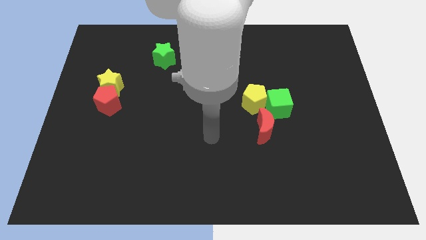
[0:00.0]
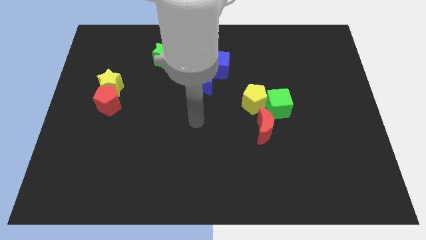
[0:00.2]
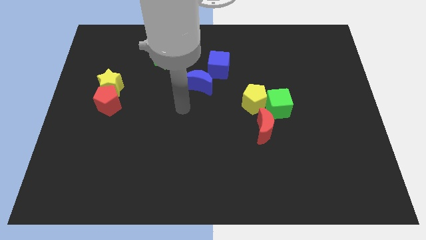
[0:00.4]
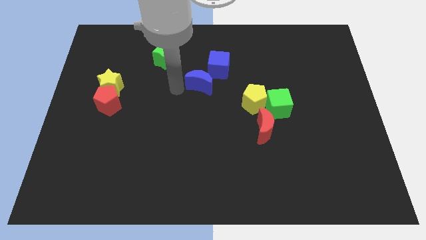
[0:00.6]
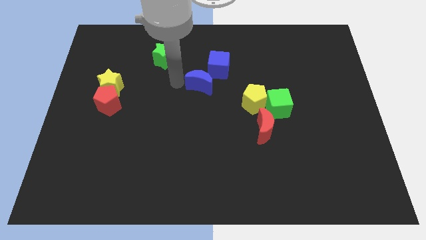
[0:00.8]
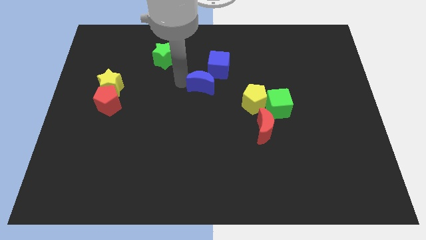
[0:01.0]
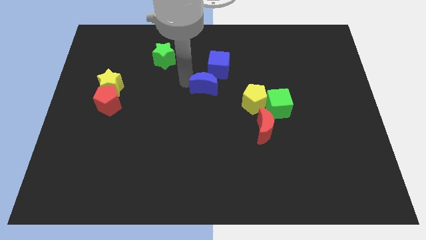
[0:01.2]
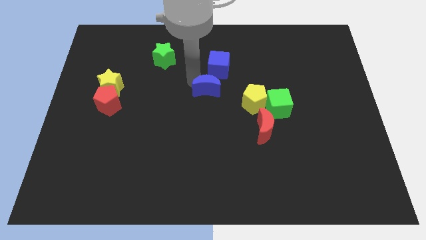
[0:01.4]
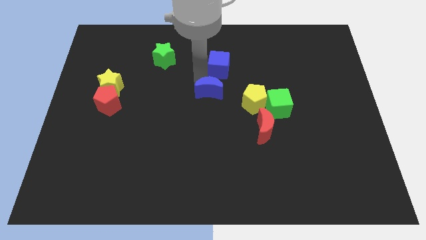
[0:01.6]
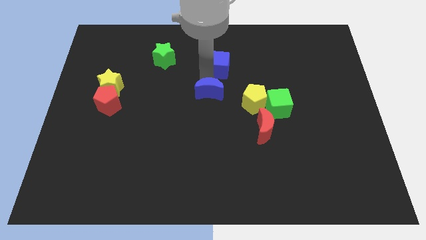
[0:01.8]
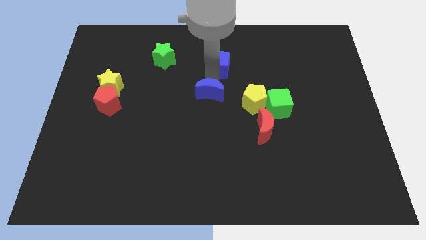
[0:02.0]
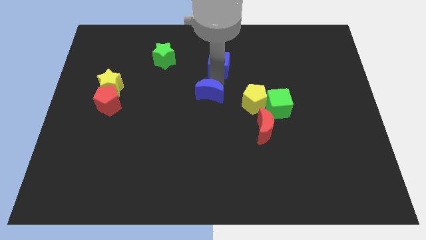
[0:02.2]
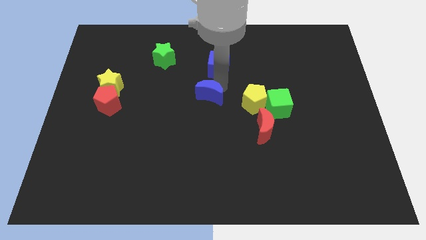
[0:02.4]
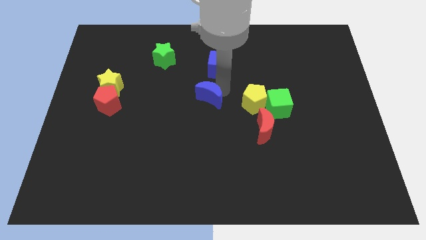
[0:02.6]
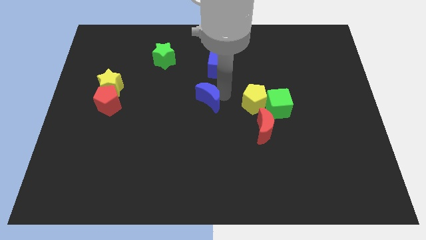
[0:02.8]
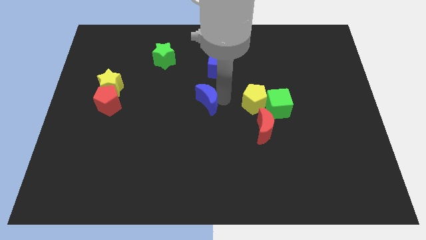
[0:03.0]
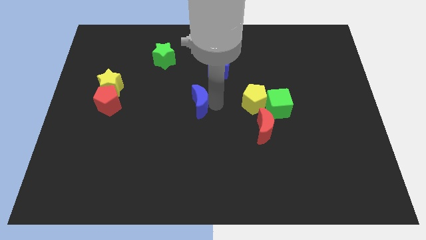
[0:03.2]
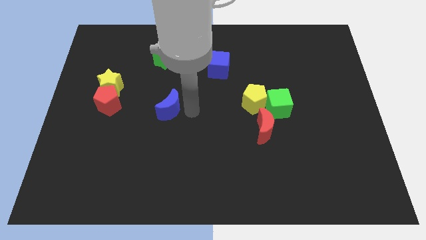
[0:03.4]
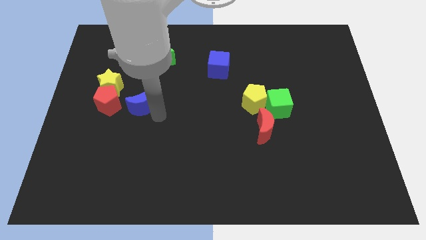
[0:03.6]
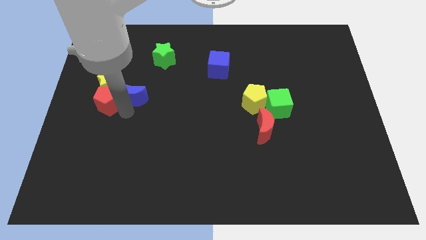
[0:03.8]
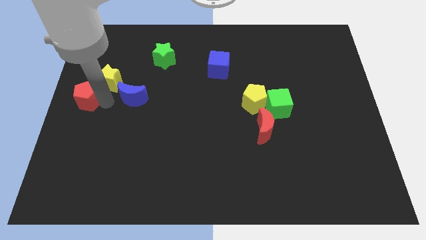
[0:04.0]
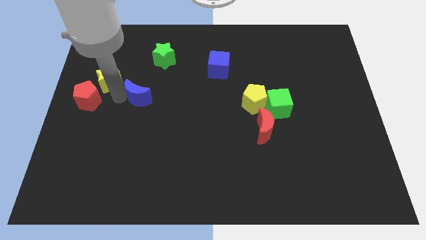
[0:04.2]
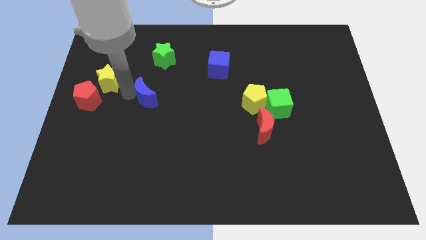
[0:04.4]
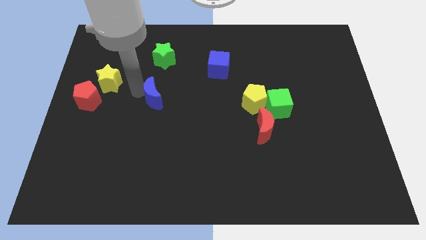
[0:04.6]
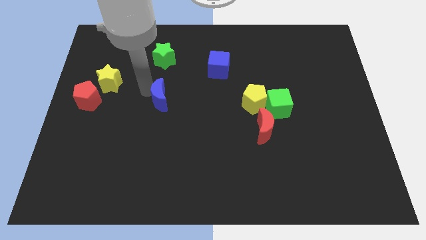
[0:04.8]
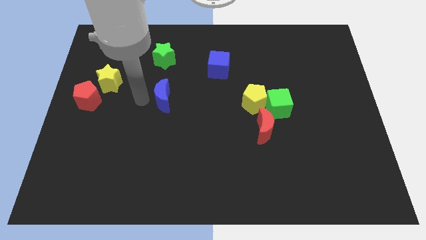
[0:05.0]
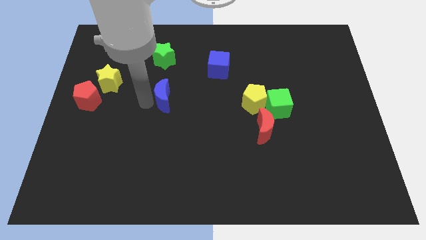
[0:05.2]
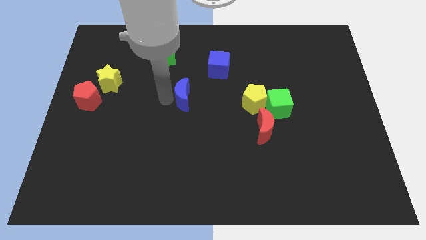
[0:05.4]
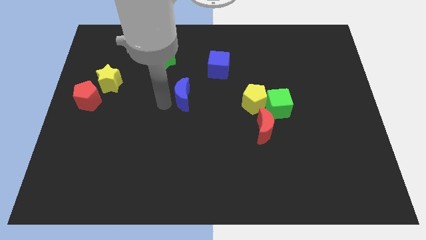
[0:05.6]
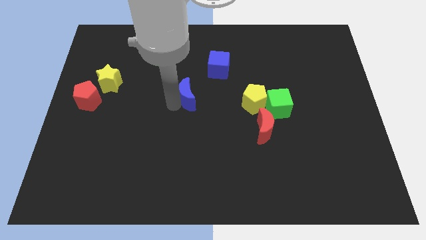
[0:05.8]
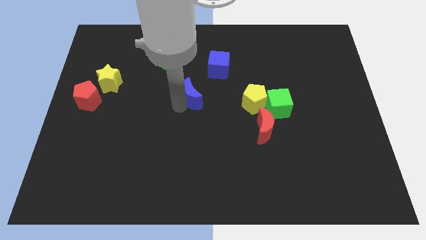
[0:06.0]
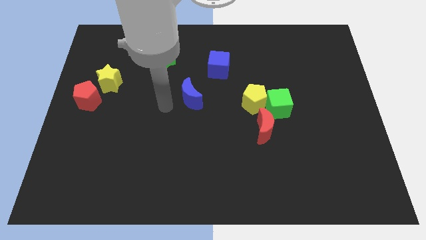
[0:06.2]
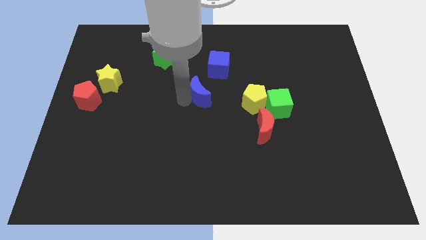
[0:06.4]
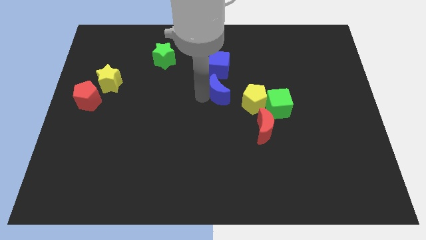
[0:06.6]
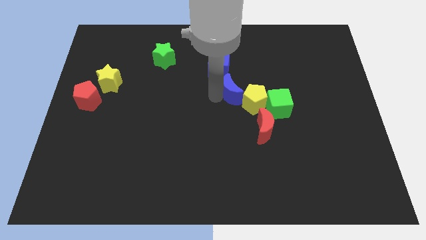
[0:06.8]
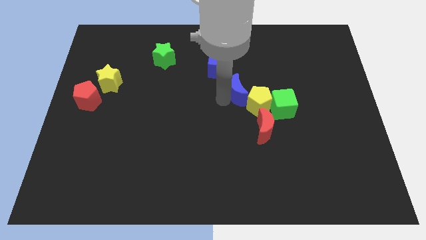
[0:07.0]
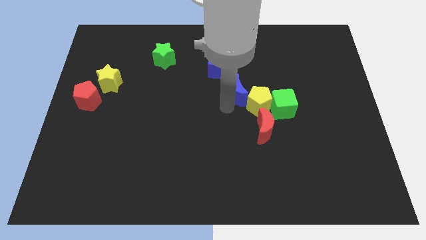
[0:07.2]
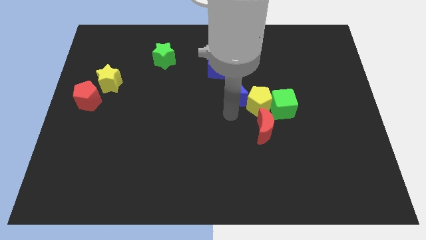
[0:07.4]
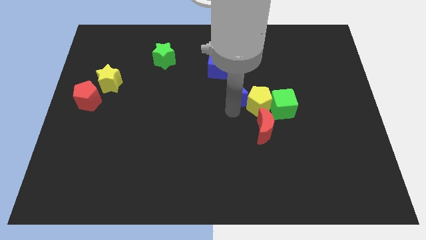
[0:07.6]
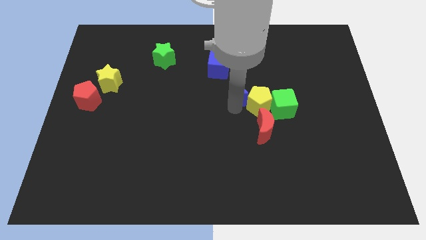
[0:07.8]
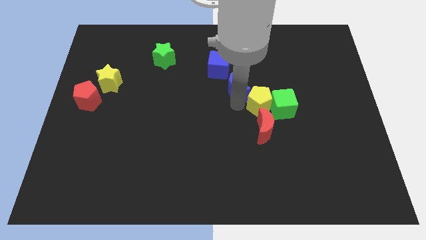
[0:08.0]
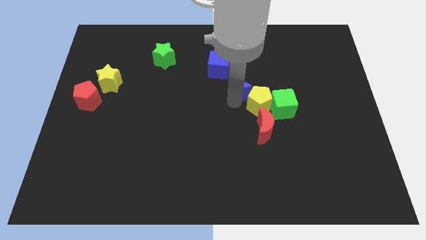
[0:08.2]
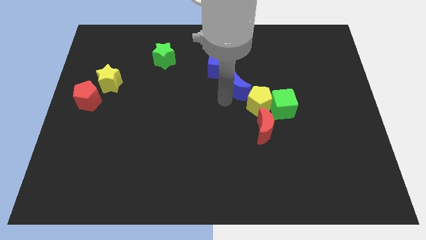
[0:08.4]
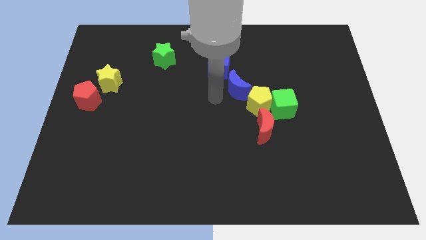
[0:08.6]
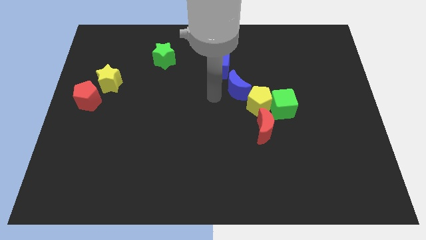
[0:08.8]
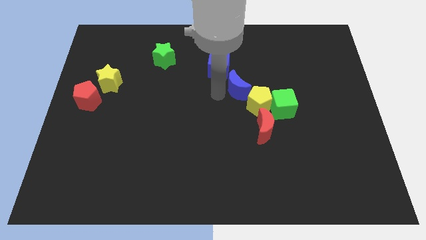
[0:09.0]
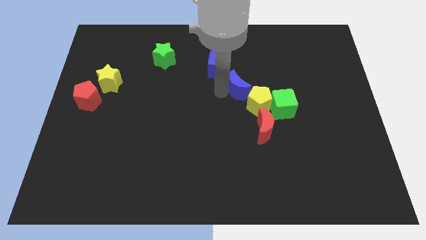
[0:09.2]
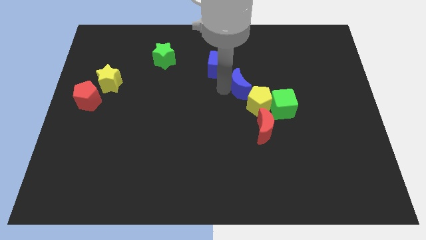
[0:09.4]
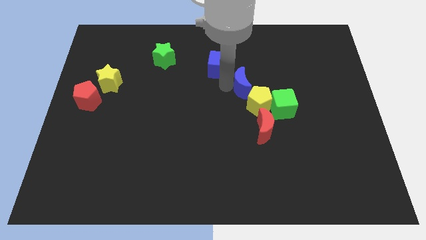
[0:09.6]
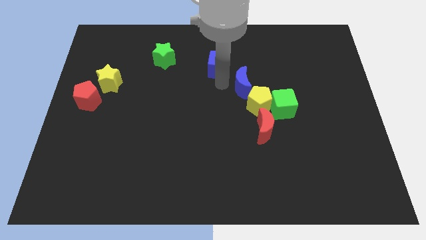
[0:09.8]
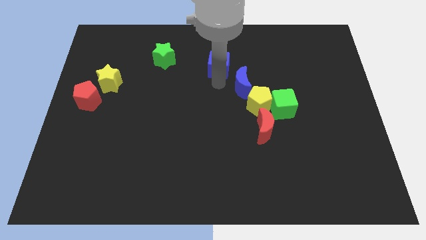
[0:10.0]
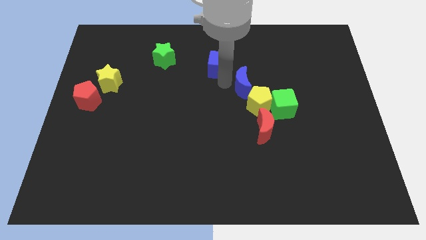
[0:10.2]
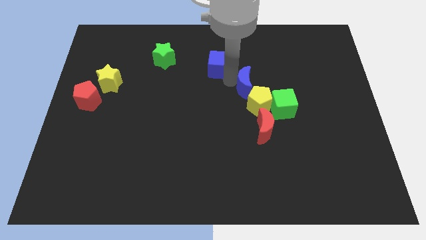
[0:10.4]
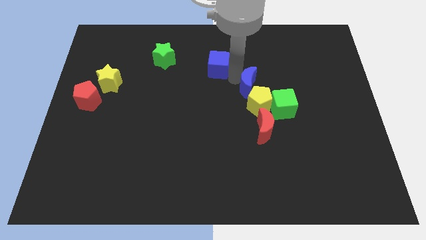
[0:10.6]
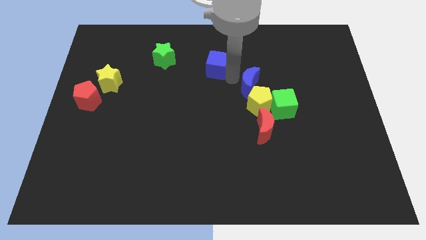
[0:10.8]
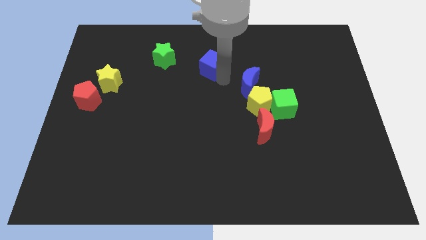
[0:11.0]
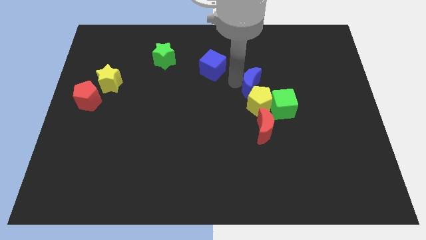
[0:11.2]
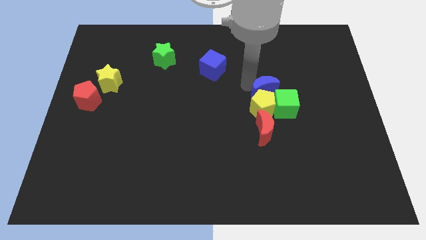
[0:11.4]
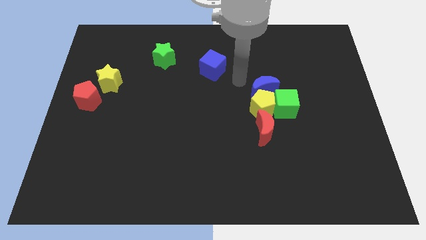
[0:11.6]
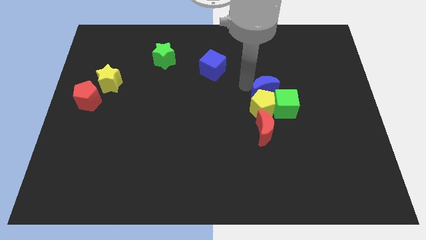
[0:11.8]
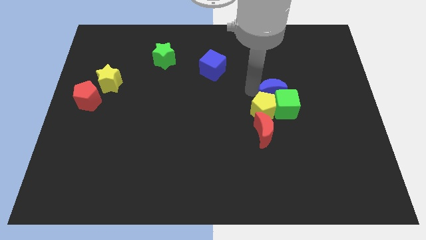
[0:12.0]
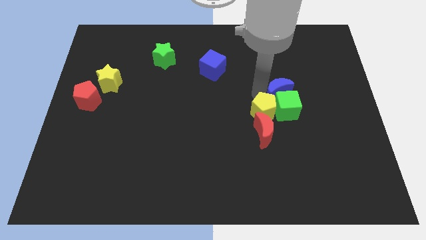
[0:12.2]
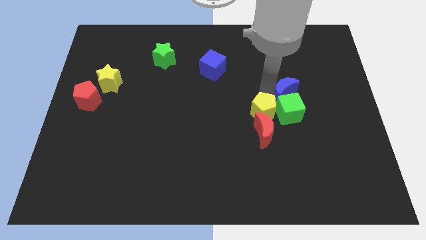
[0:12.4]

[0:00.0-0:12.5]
slide the blue moon right of the yellow pentagon

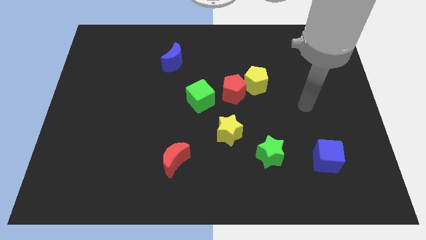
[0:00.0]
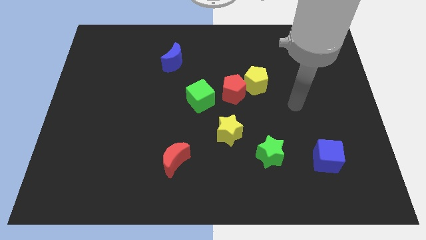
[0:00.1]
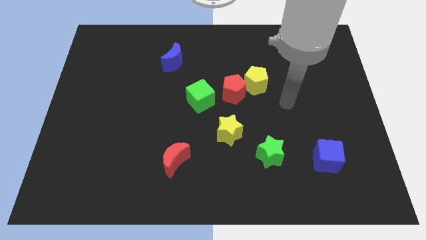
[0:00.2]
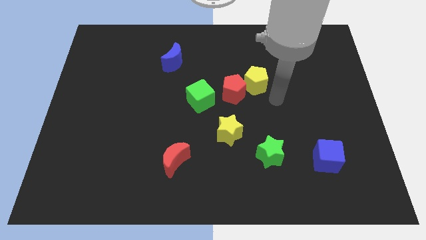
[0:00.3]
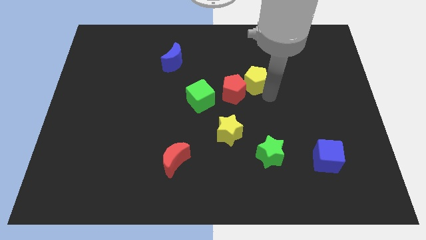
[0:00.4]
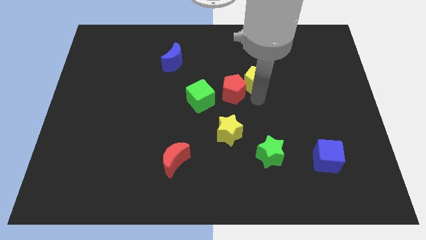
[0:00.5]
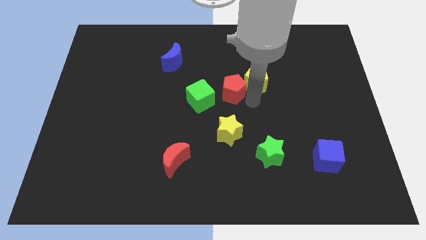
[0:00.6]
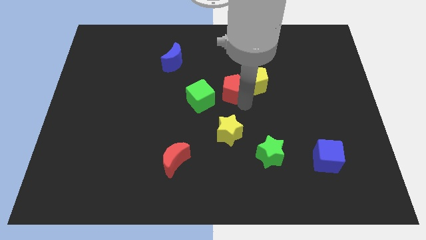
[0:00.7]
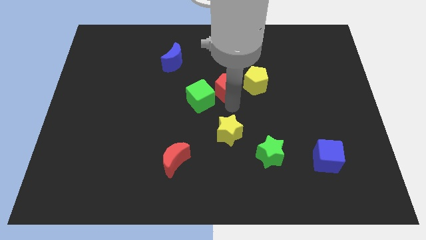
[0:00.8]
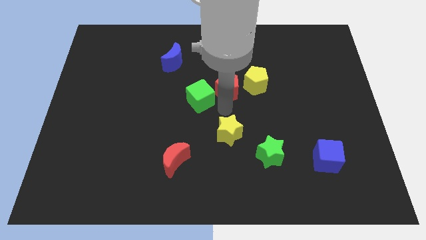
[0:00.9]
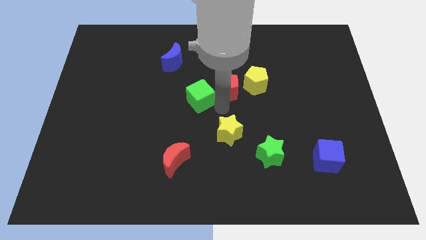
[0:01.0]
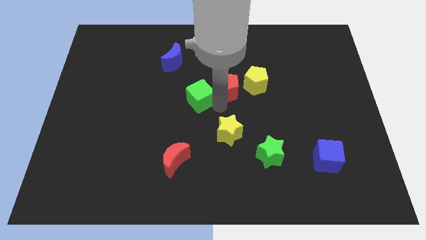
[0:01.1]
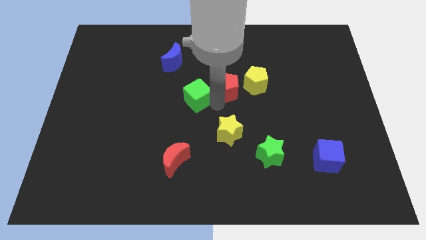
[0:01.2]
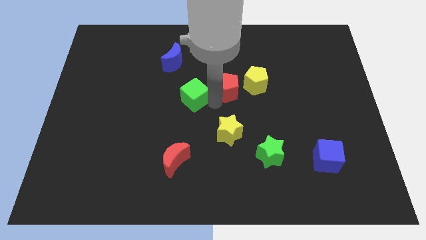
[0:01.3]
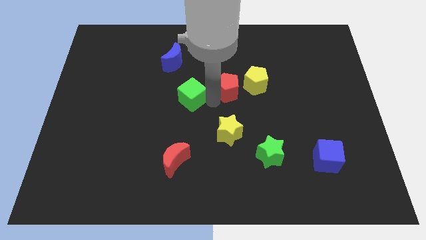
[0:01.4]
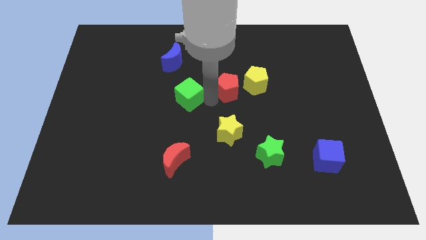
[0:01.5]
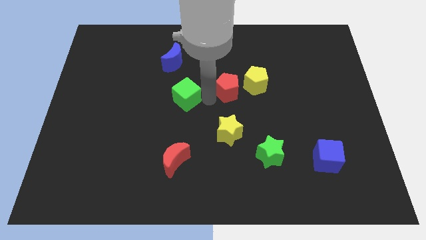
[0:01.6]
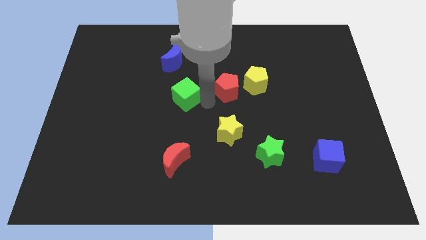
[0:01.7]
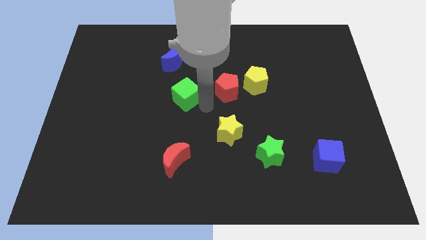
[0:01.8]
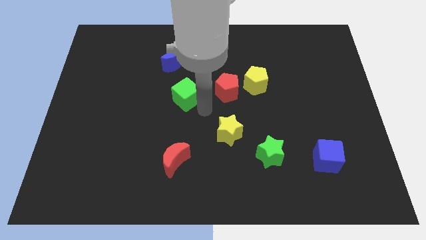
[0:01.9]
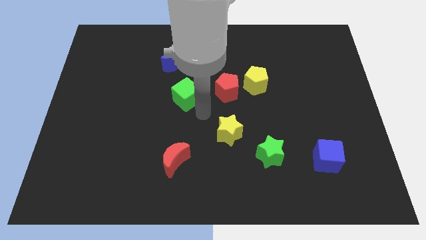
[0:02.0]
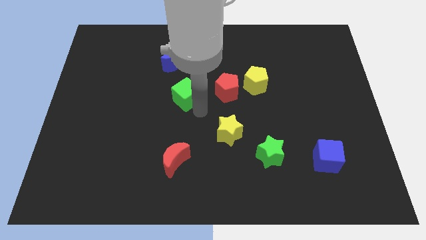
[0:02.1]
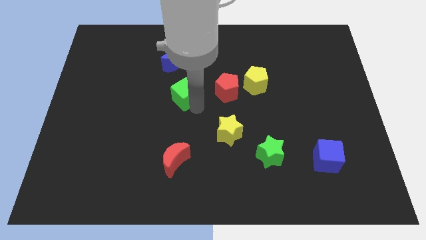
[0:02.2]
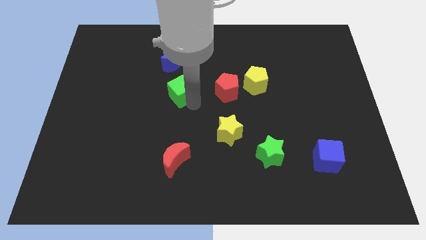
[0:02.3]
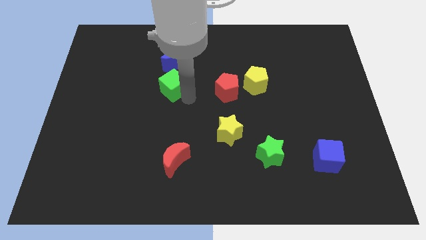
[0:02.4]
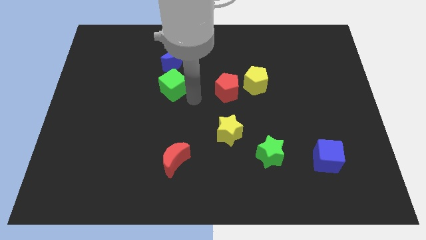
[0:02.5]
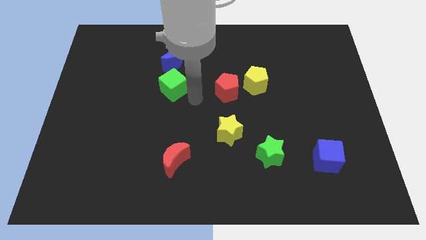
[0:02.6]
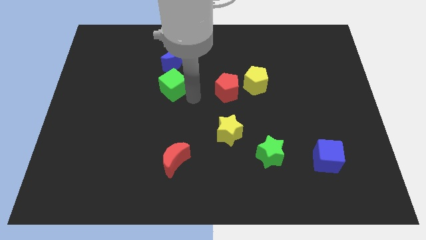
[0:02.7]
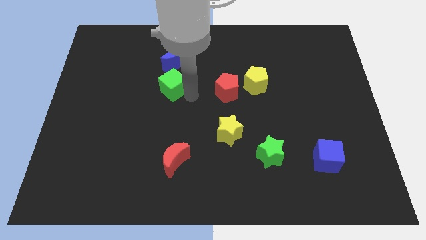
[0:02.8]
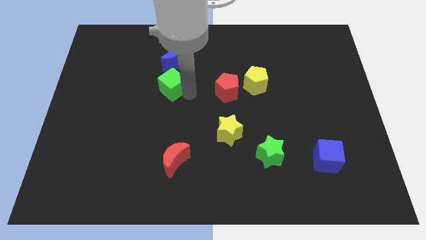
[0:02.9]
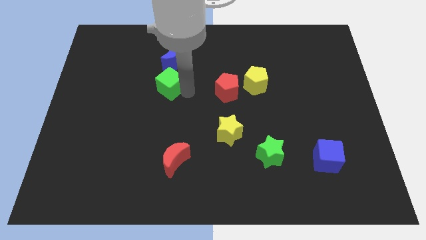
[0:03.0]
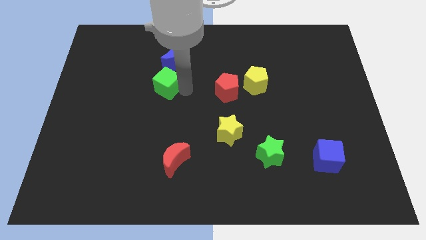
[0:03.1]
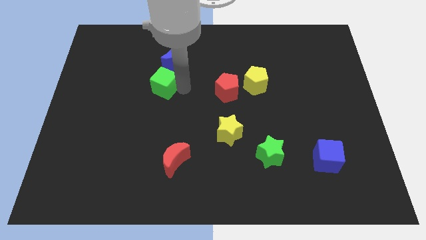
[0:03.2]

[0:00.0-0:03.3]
move the green cube diagonally down and to the left of the blue moon
